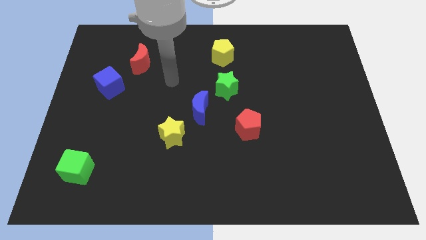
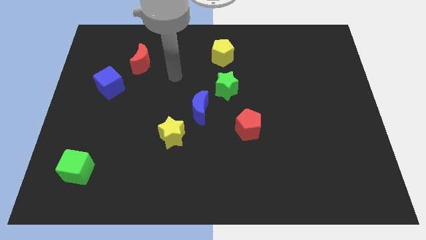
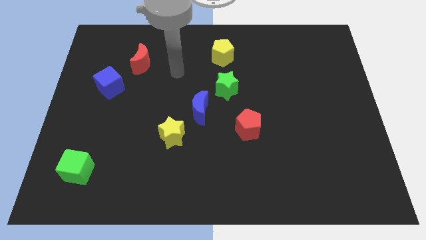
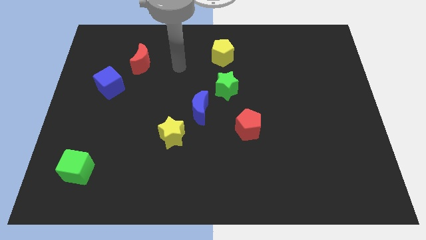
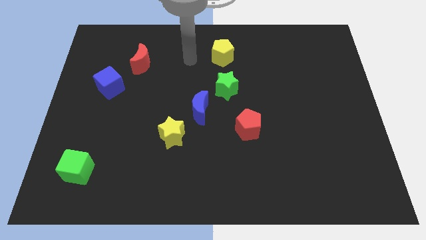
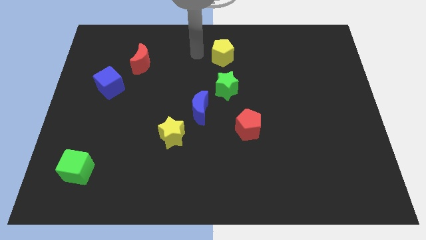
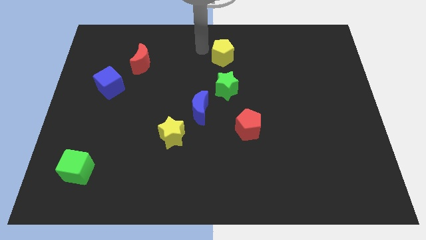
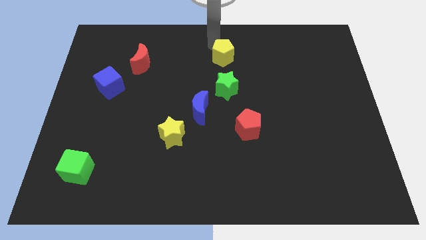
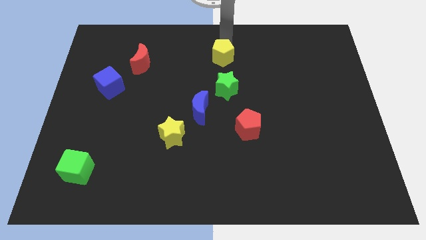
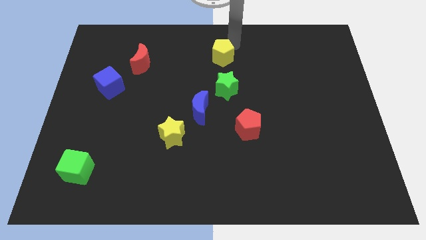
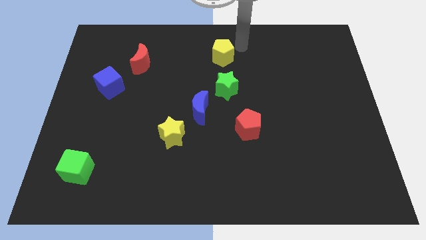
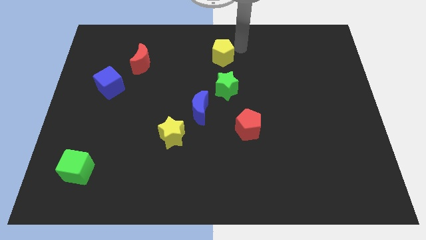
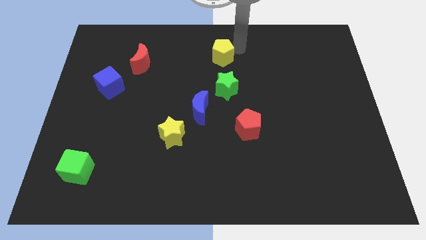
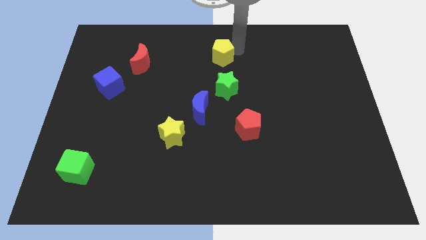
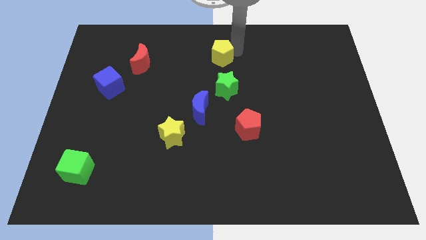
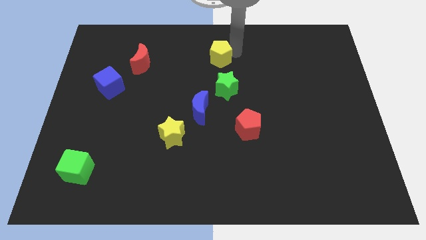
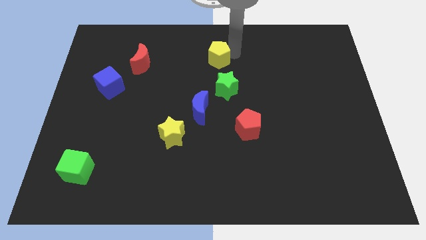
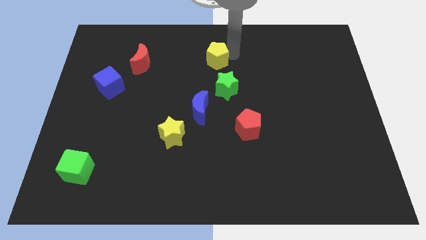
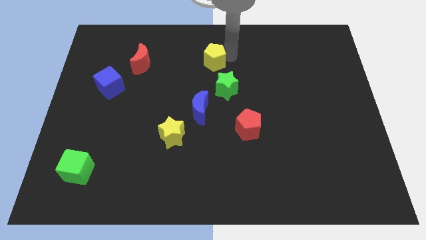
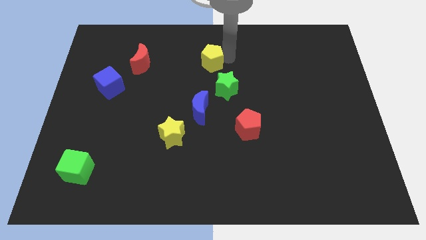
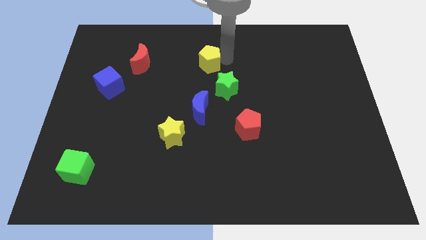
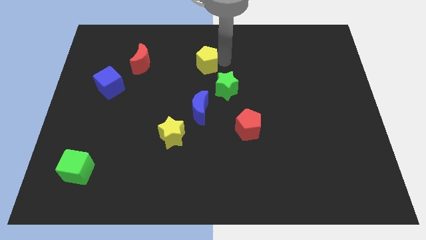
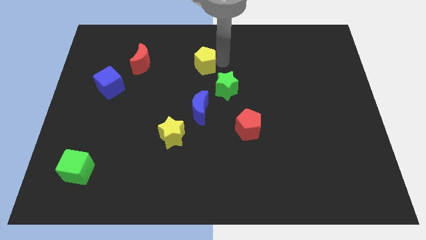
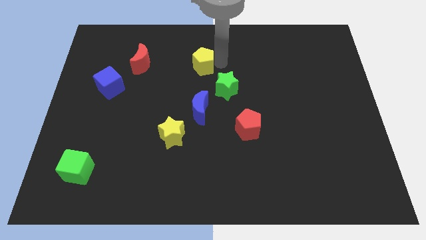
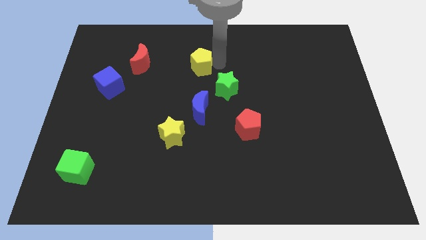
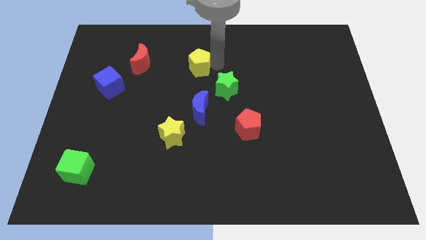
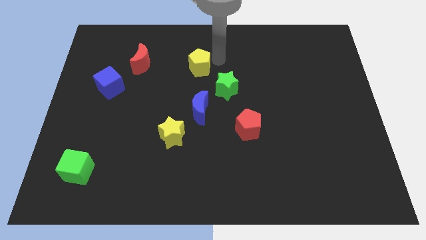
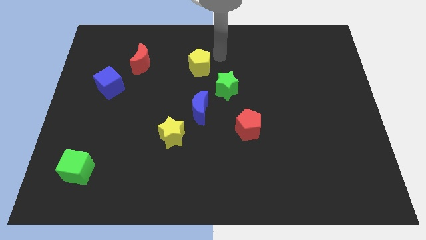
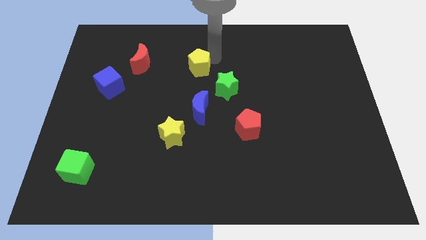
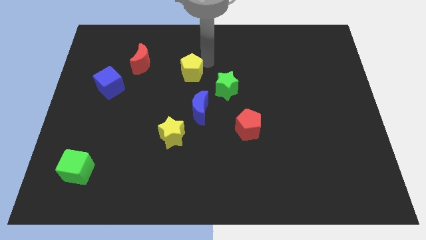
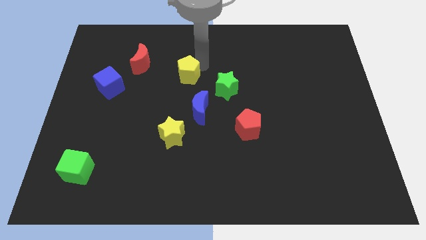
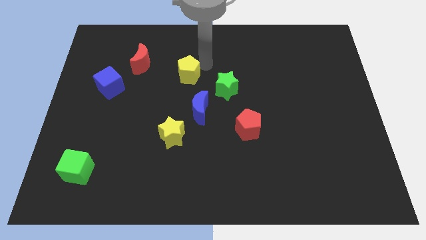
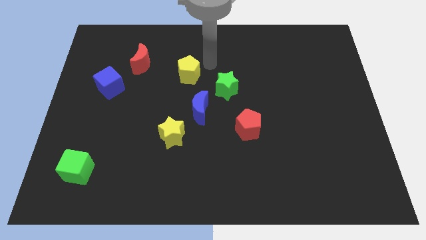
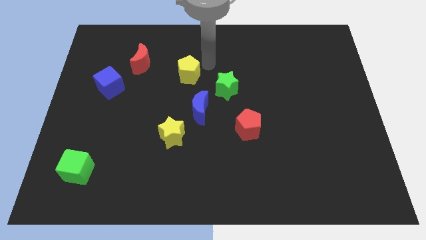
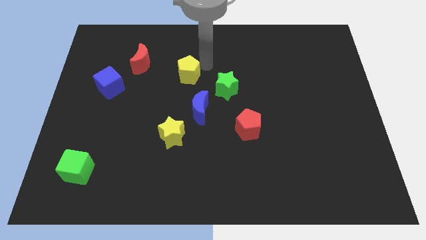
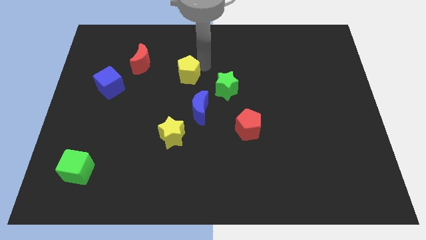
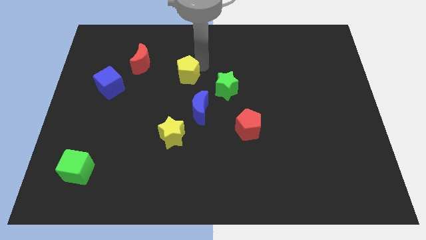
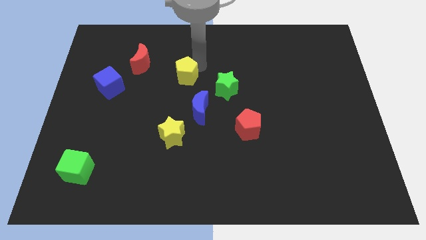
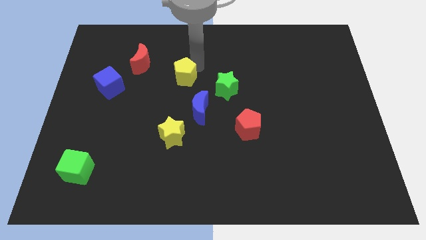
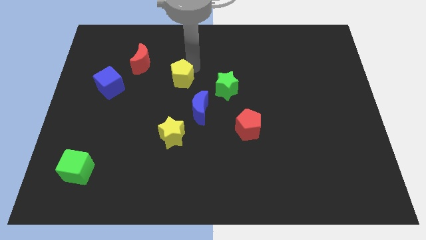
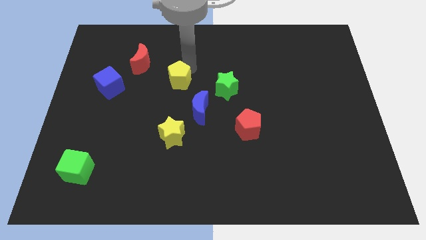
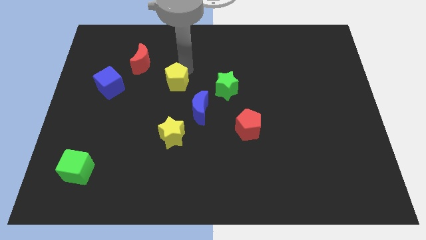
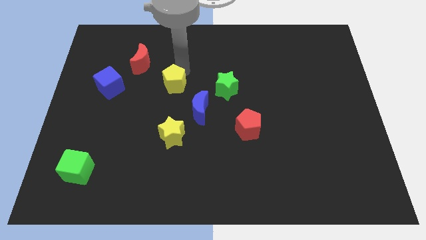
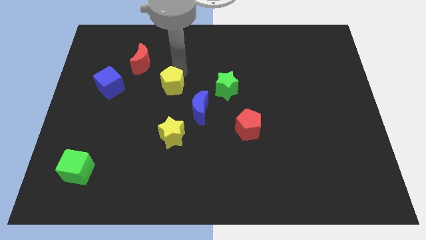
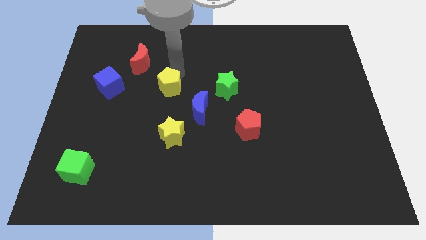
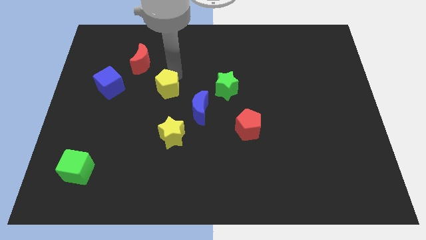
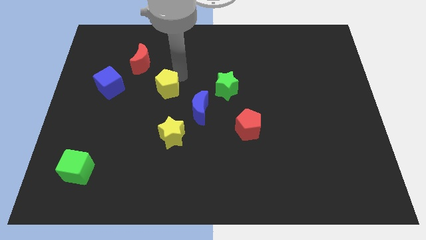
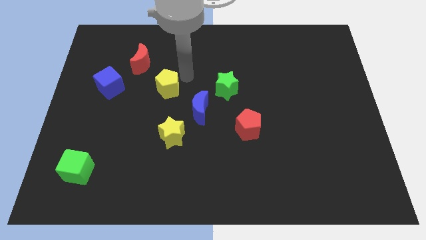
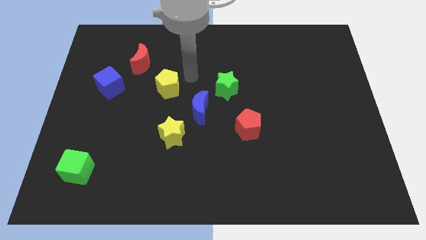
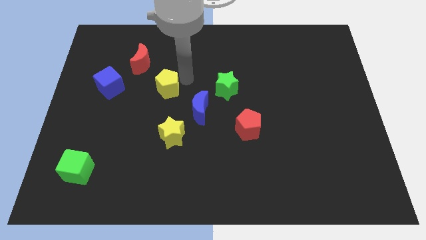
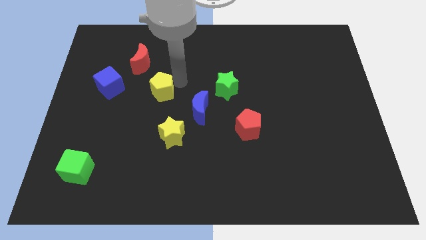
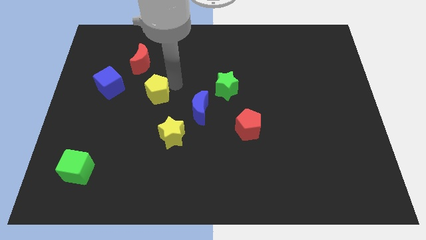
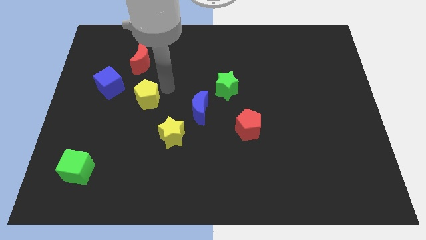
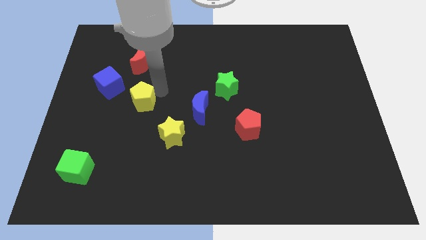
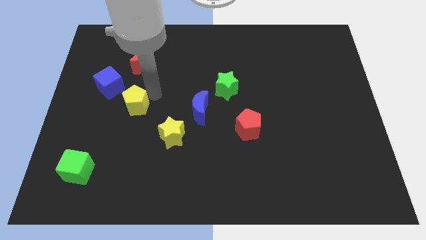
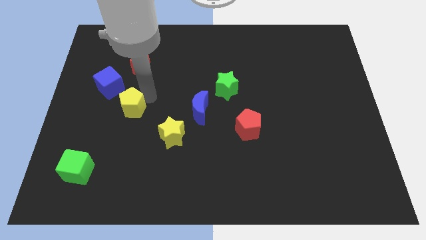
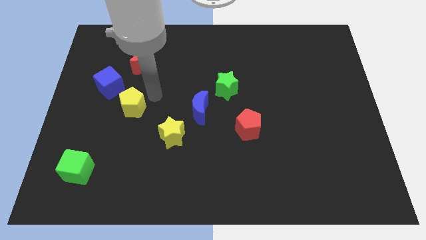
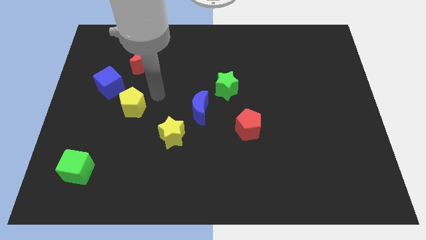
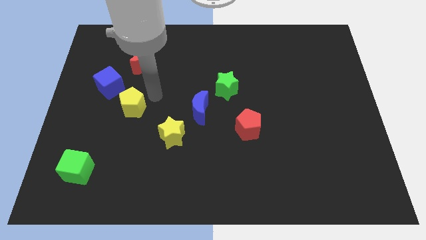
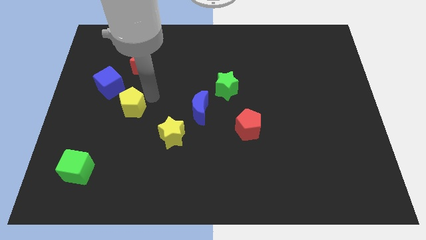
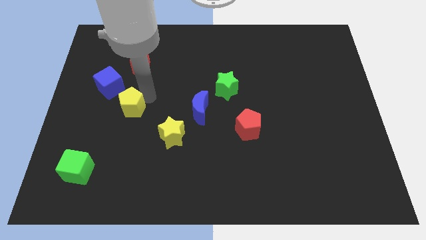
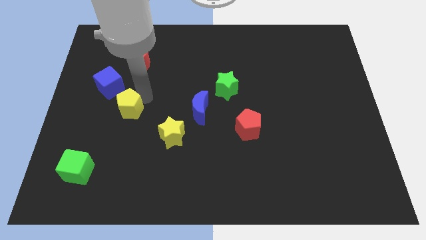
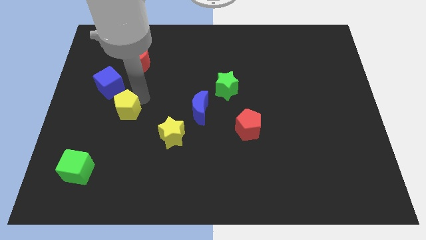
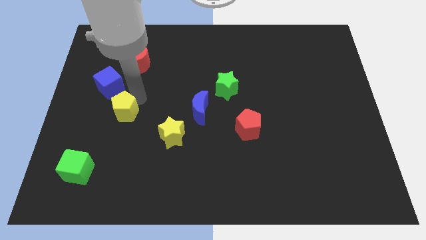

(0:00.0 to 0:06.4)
push the yellow pentagon to the bottom side of the blue cube

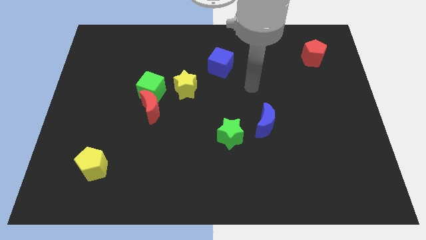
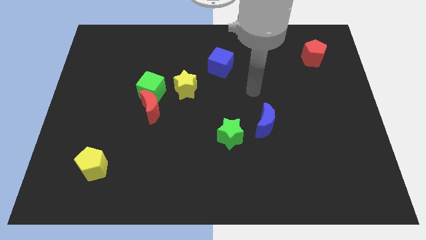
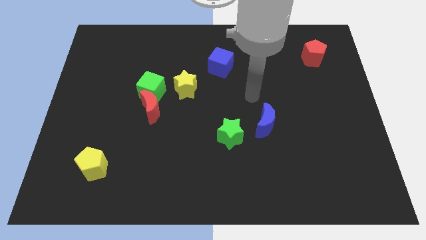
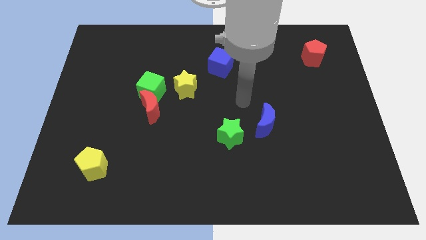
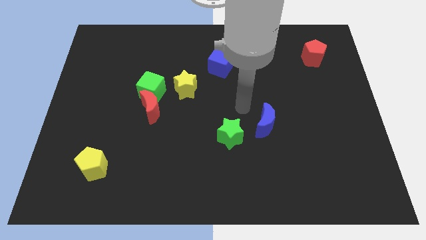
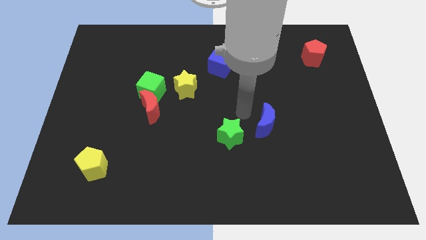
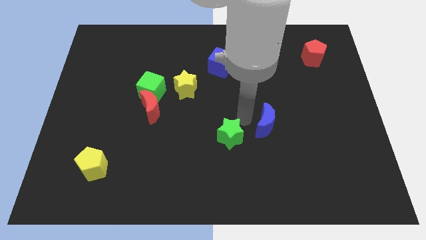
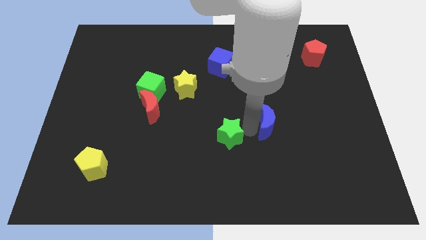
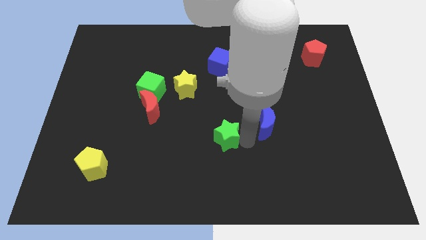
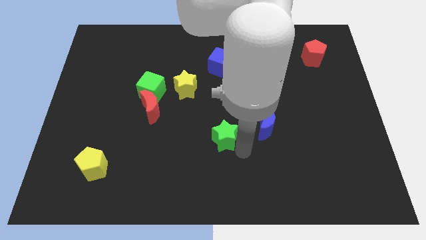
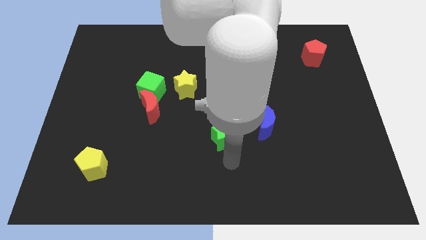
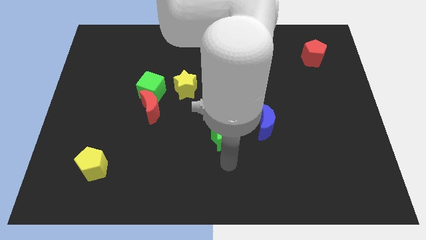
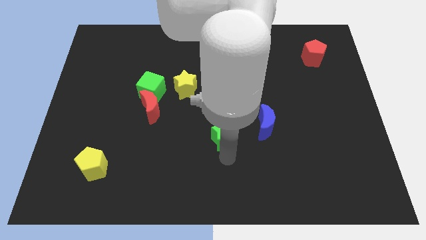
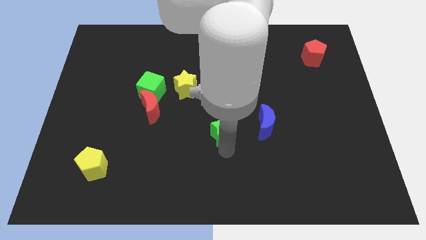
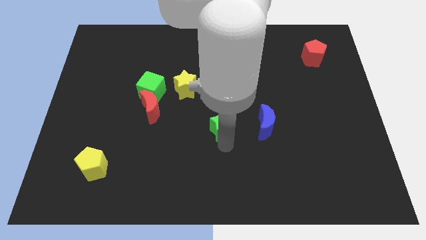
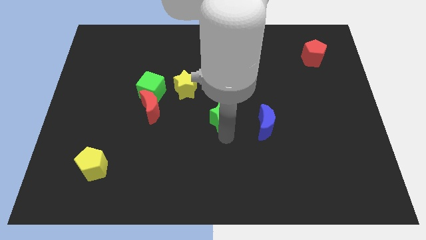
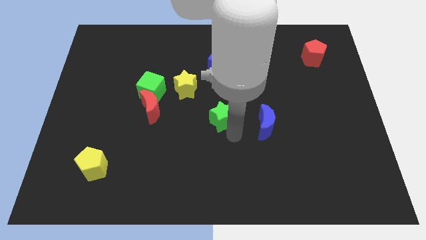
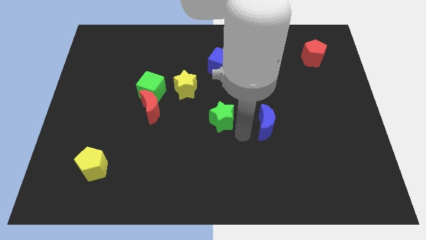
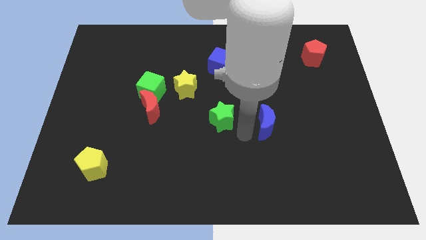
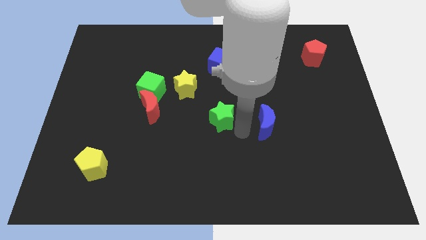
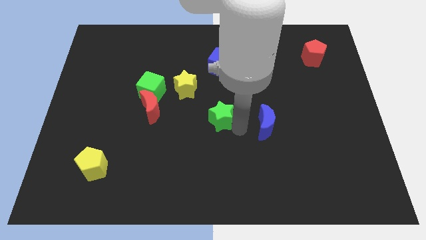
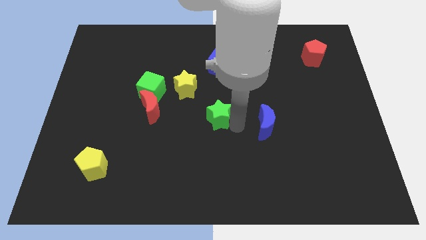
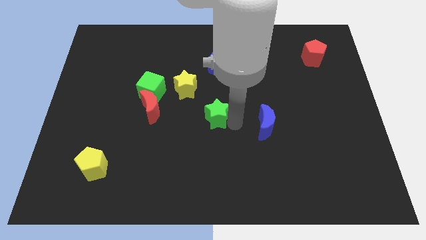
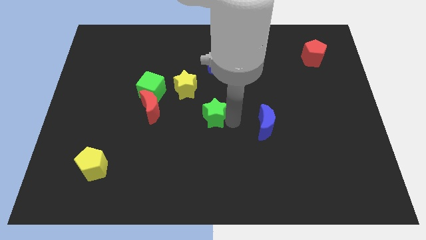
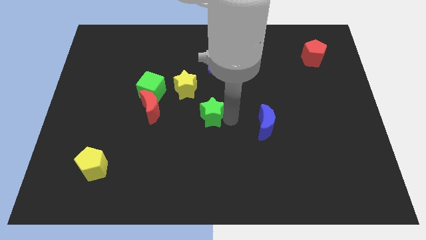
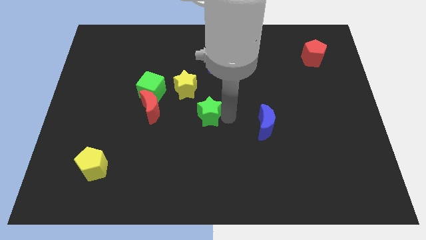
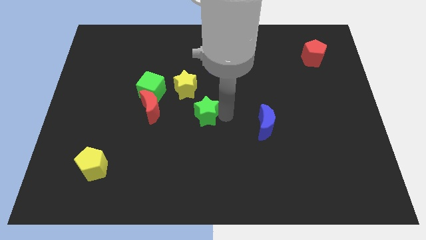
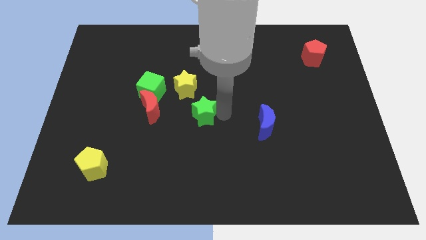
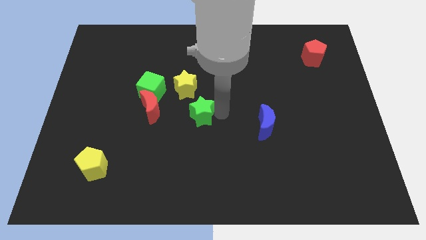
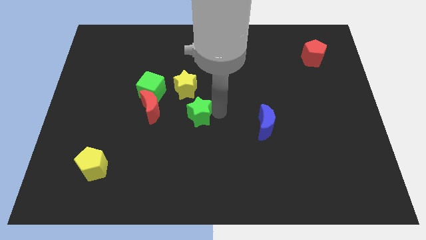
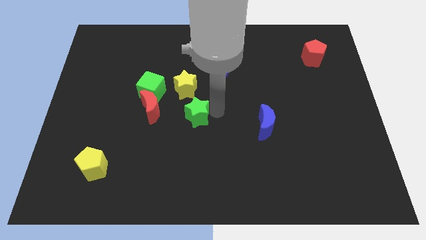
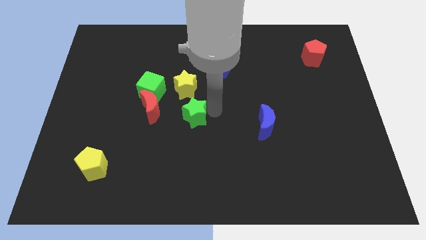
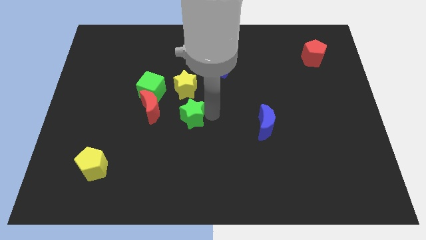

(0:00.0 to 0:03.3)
put the green star to the bottom right side of the green cube
